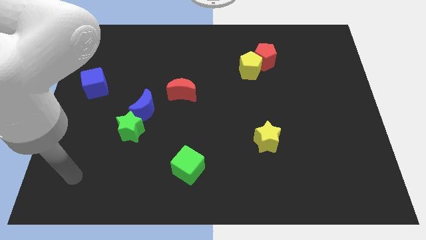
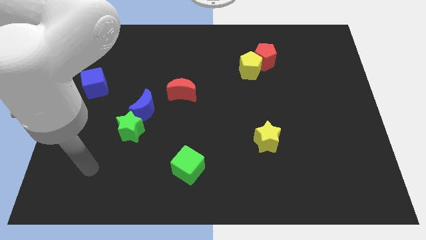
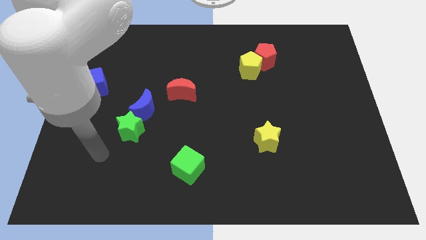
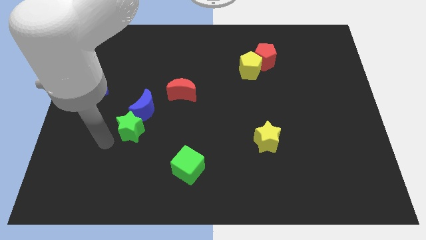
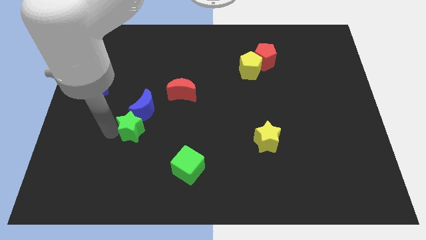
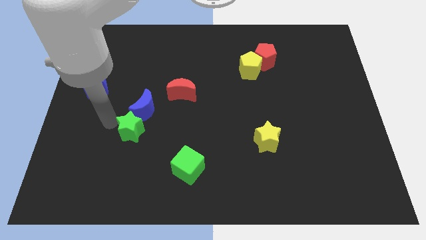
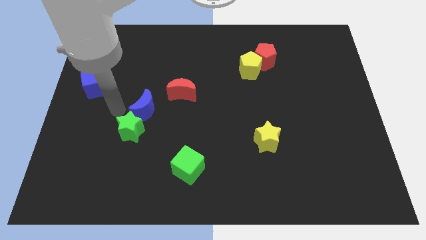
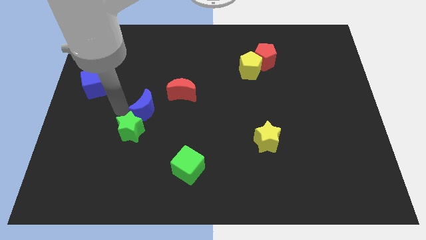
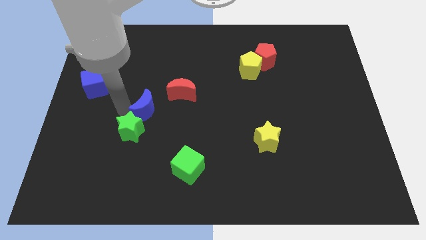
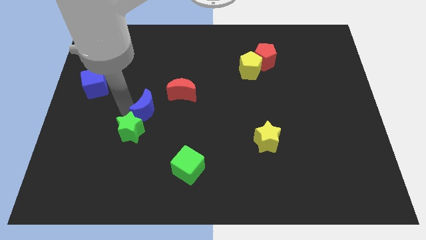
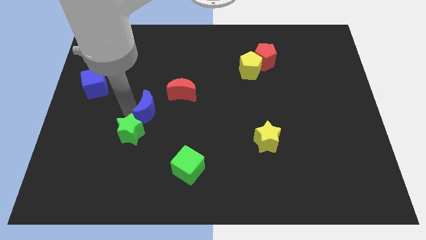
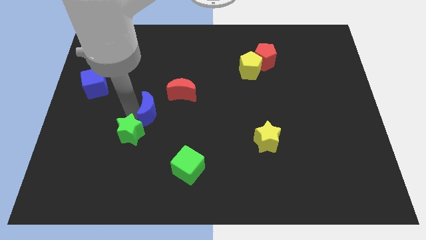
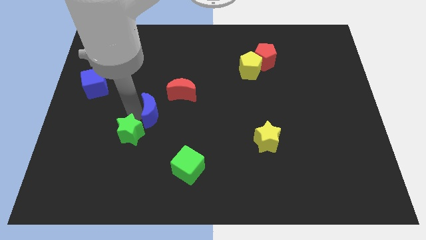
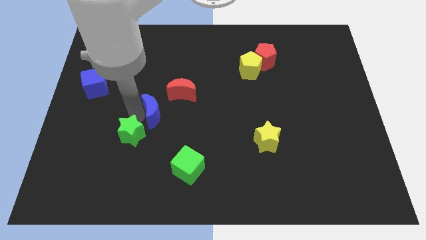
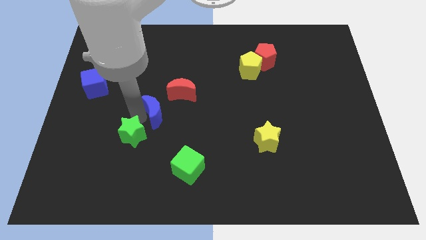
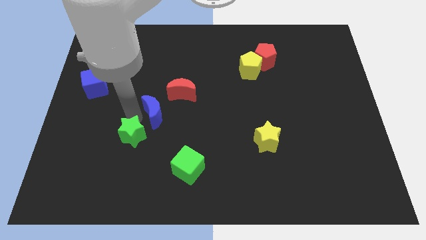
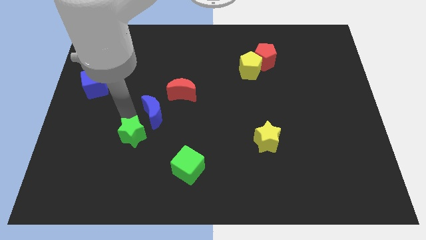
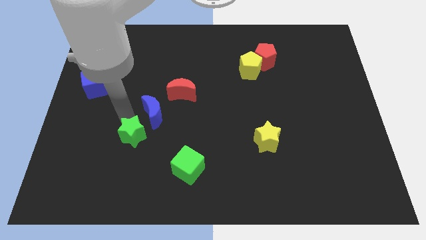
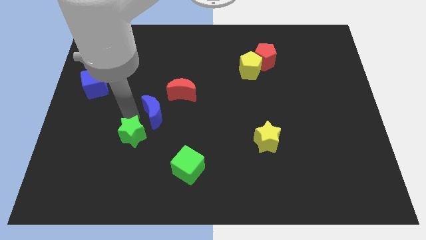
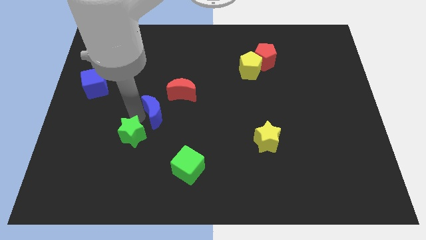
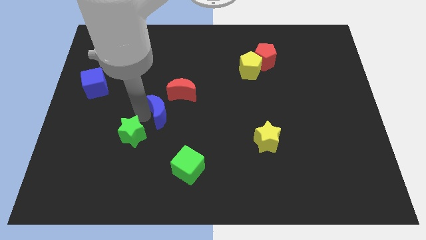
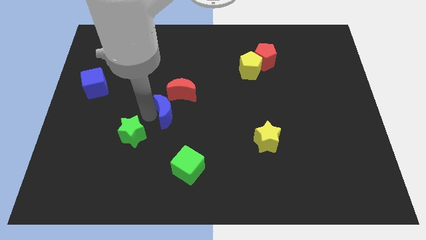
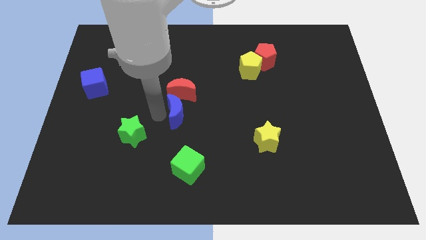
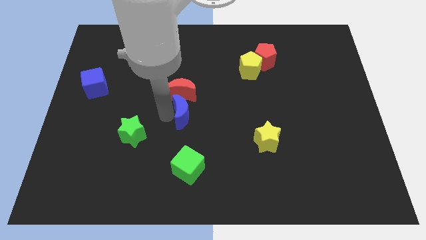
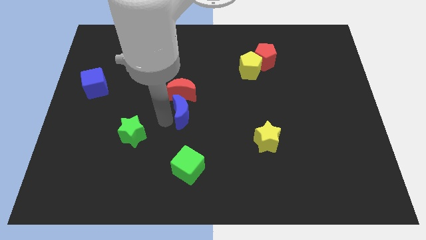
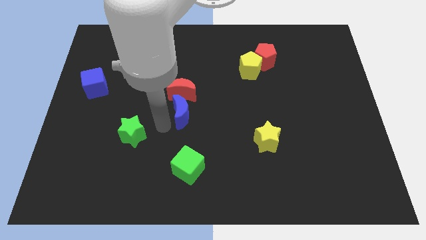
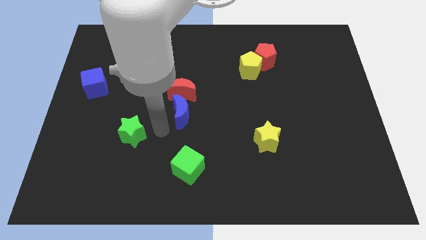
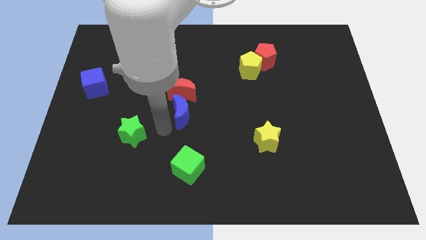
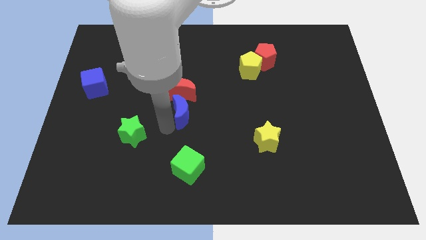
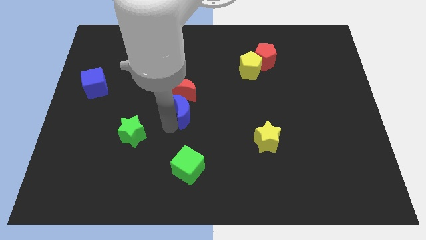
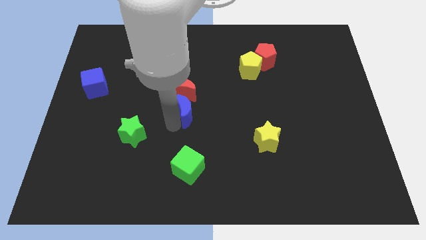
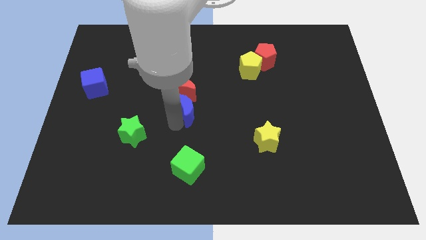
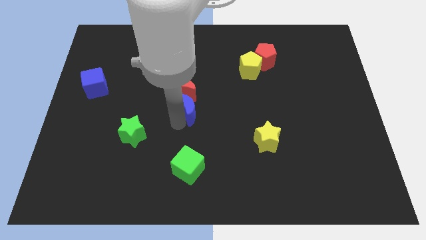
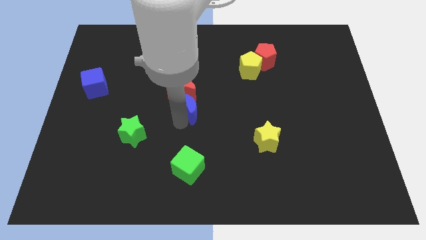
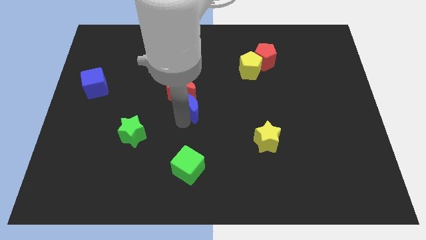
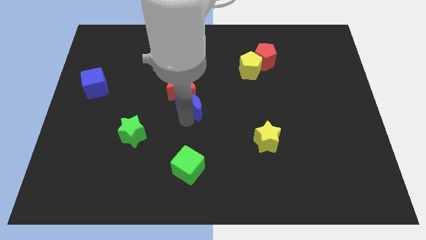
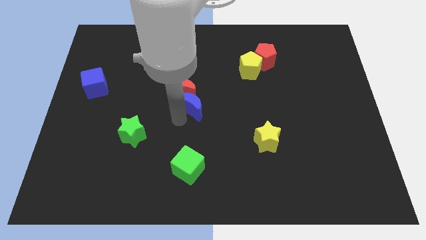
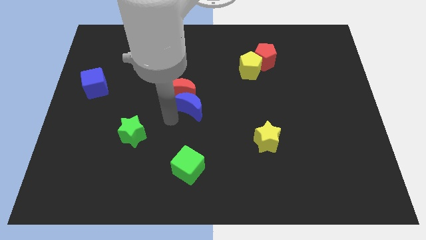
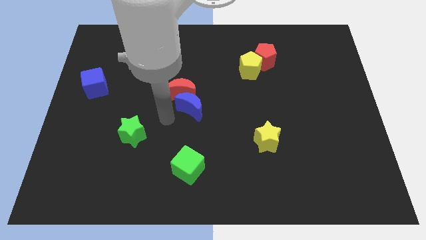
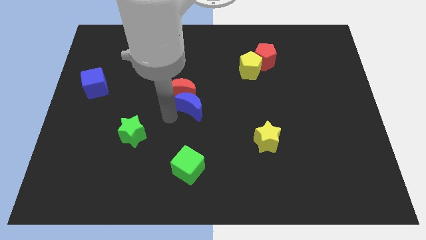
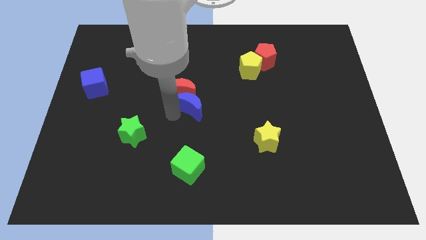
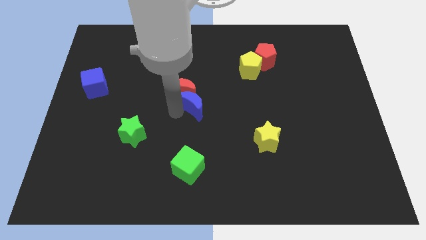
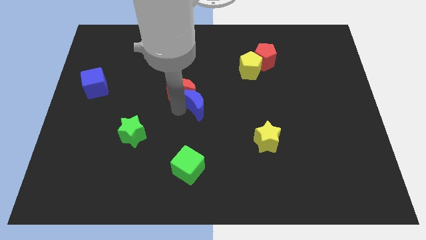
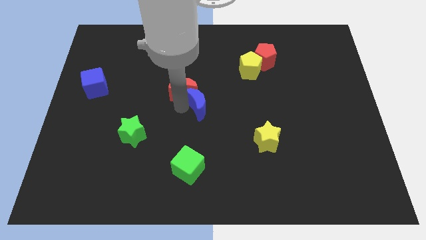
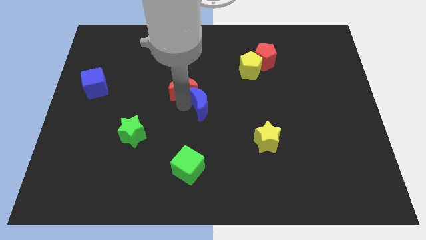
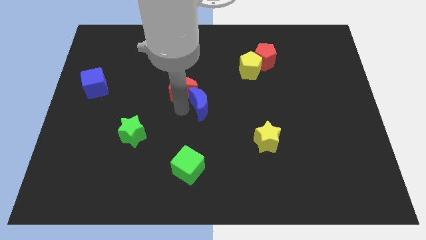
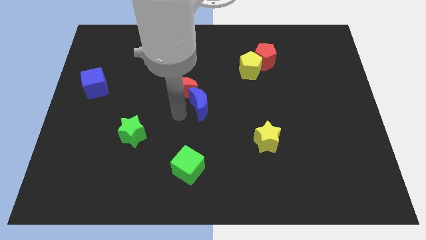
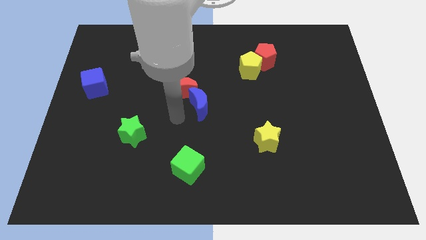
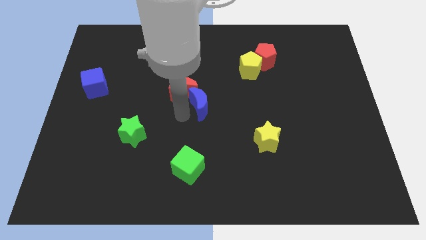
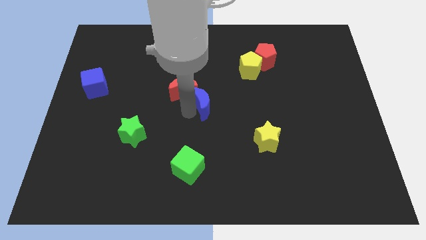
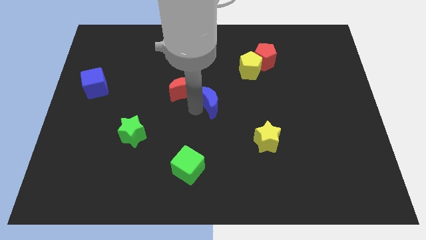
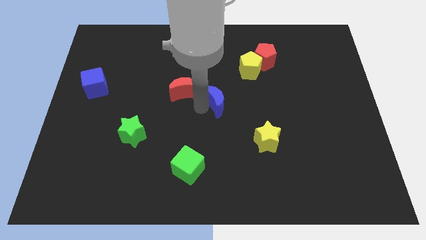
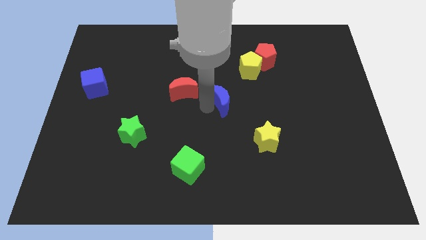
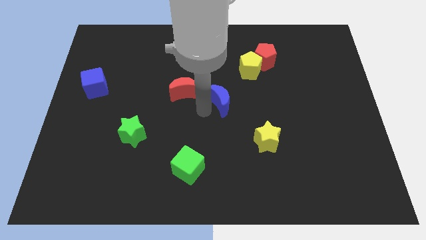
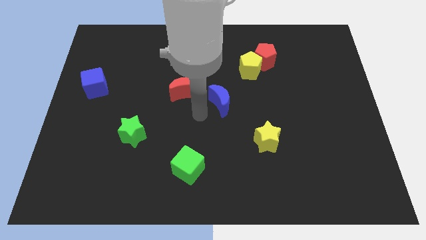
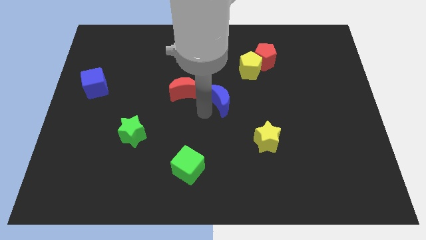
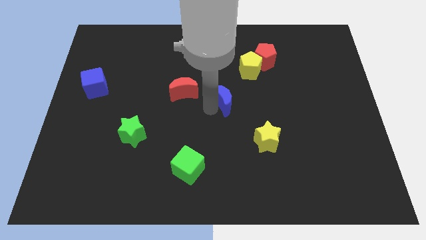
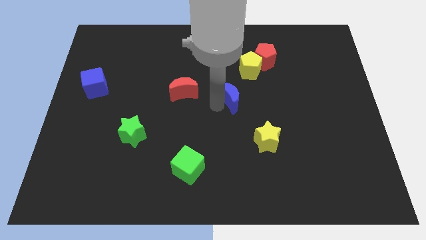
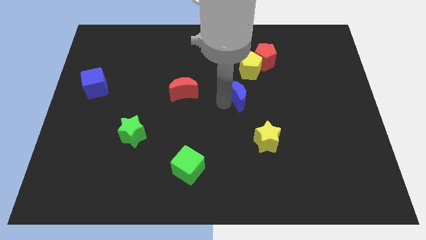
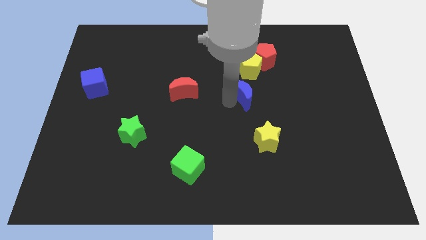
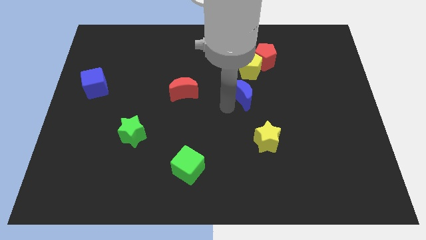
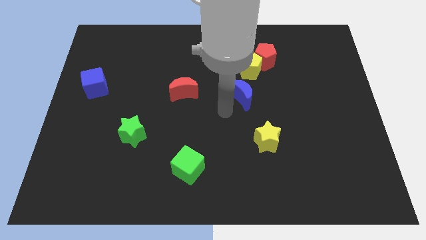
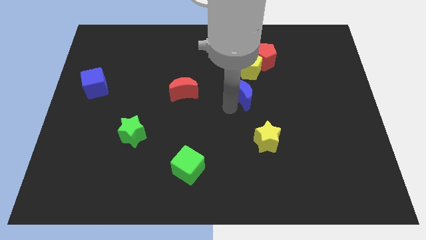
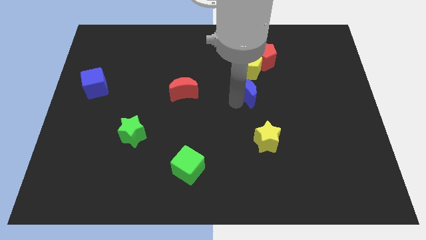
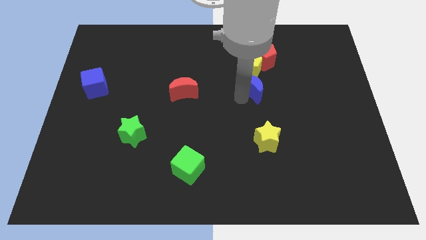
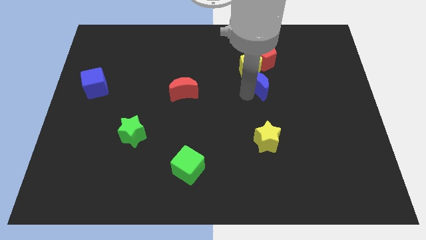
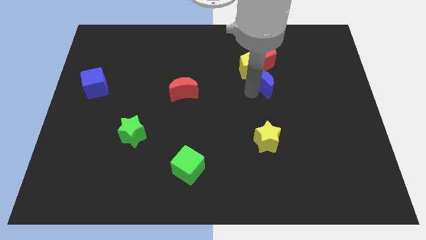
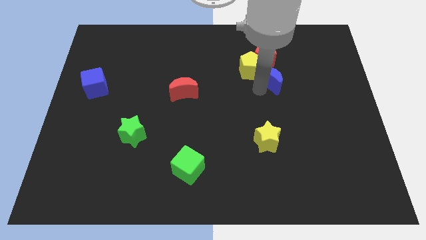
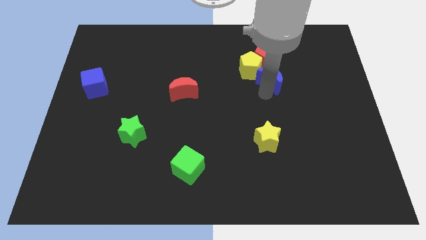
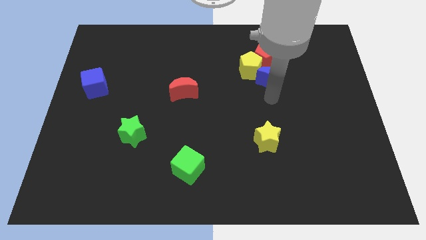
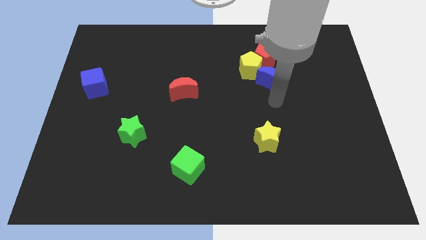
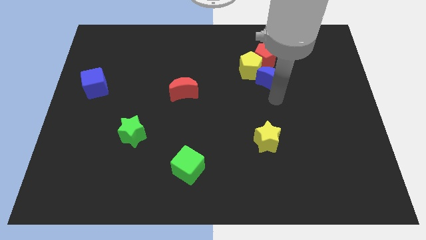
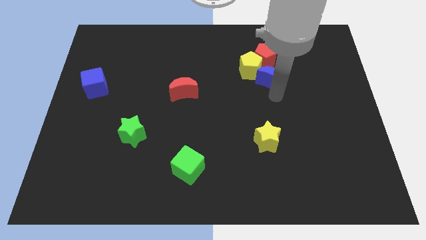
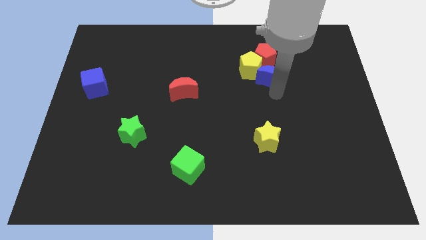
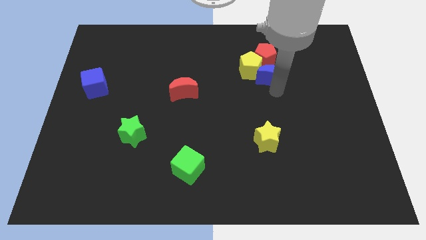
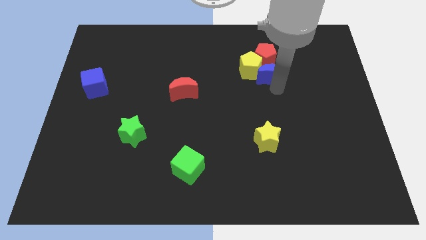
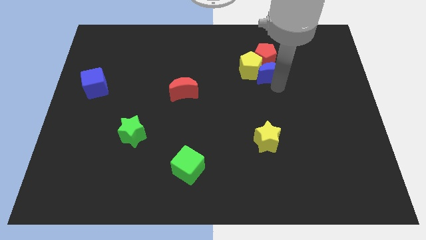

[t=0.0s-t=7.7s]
slide the blue moon next to the red pentagon
